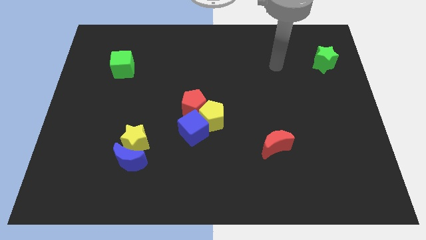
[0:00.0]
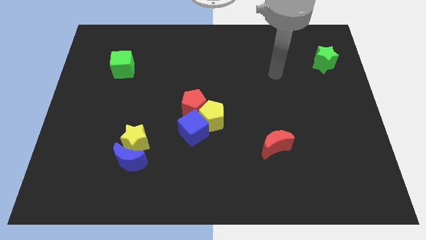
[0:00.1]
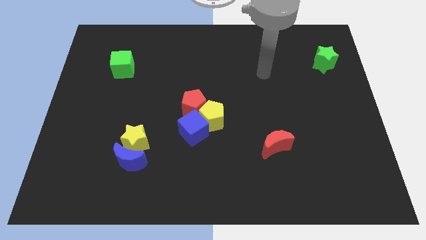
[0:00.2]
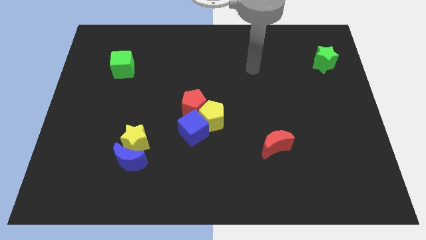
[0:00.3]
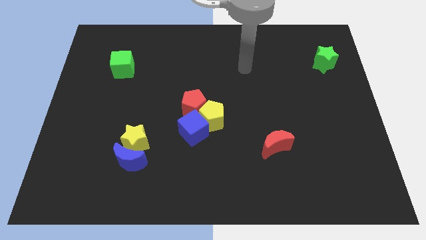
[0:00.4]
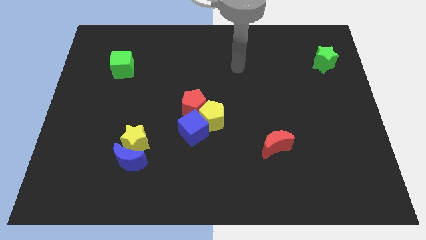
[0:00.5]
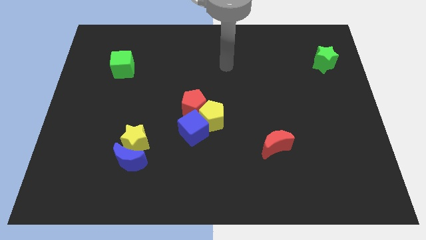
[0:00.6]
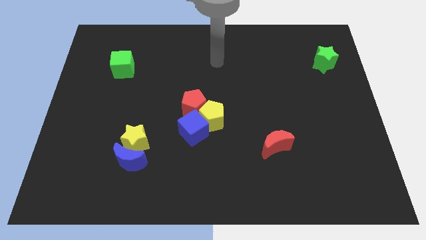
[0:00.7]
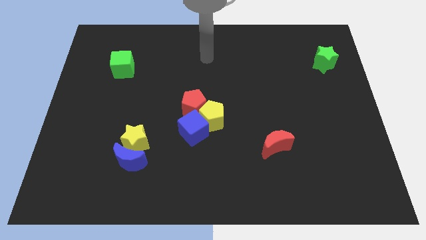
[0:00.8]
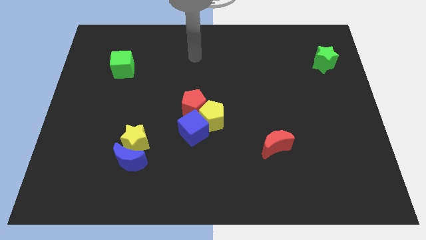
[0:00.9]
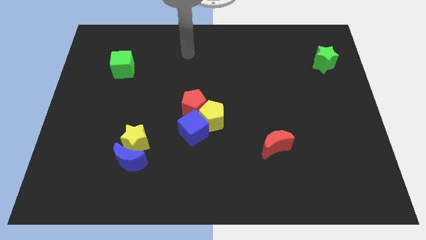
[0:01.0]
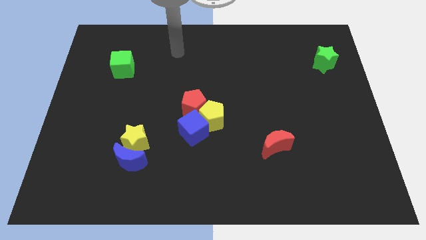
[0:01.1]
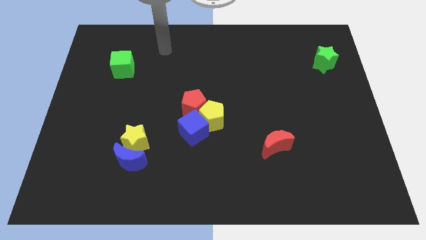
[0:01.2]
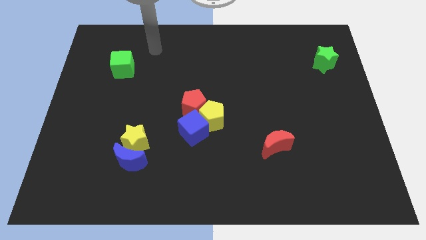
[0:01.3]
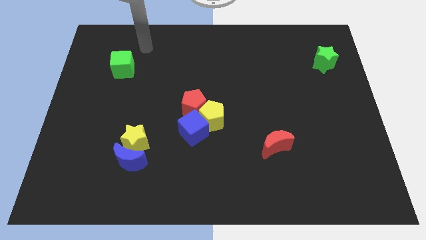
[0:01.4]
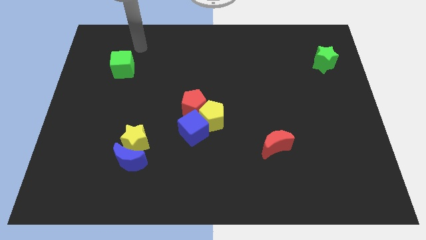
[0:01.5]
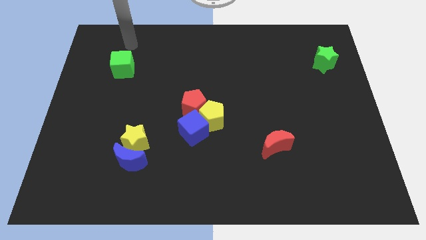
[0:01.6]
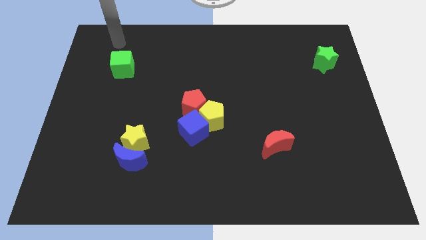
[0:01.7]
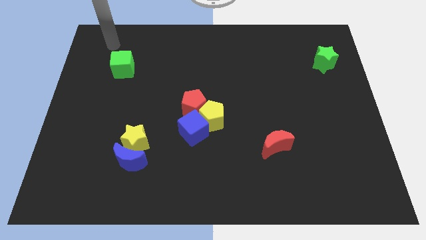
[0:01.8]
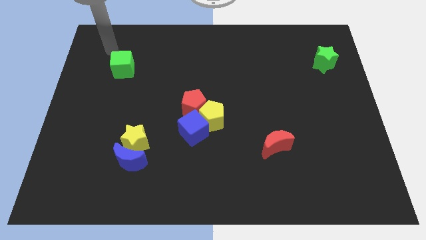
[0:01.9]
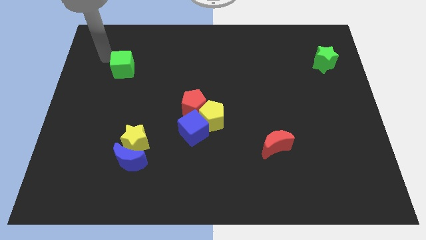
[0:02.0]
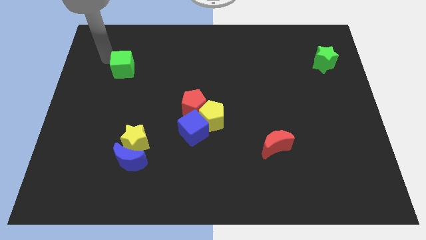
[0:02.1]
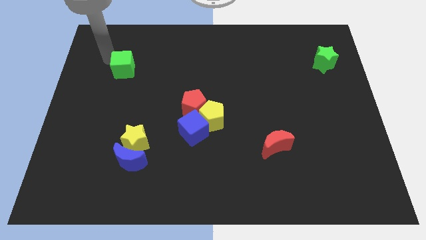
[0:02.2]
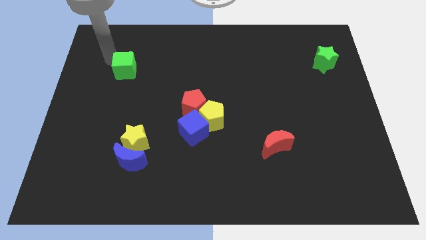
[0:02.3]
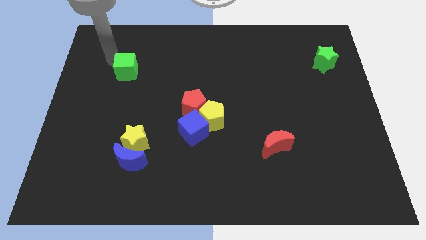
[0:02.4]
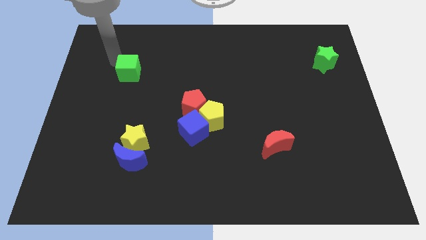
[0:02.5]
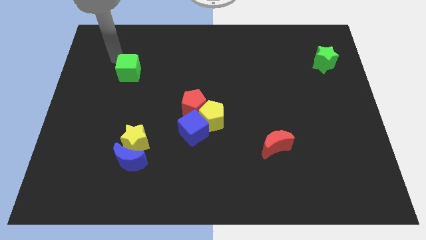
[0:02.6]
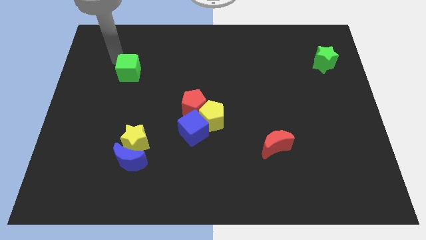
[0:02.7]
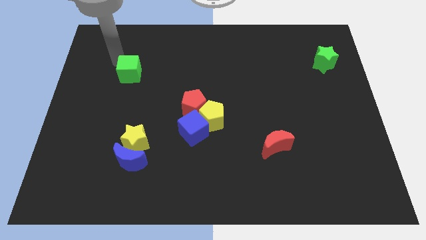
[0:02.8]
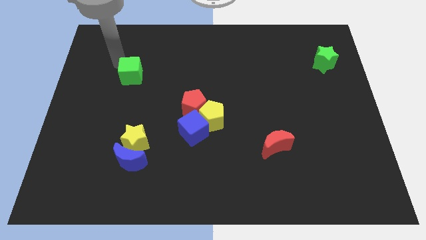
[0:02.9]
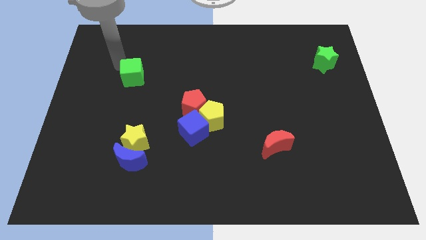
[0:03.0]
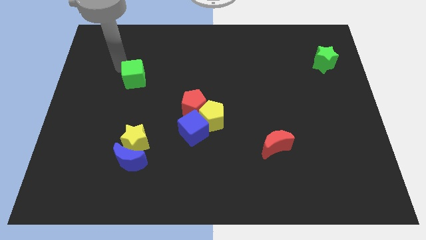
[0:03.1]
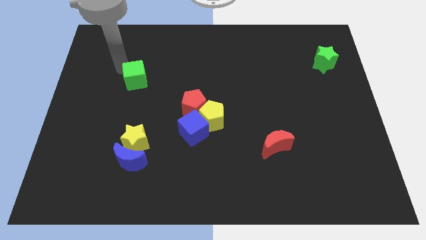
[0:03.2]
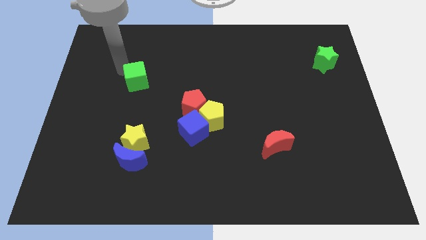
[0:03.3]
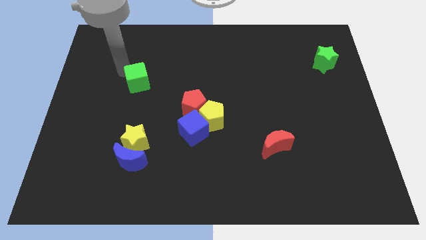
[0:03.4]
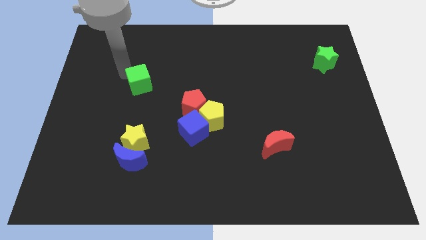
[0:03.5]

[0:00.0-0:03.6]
slightly push the green cube downwards and to the right

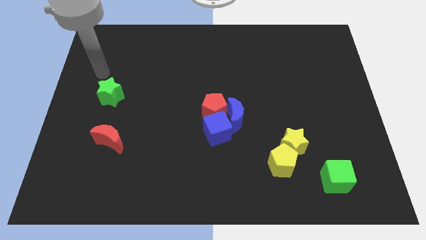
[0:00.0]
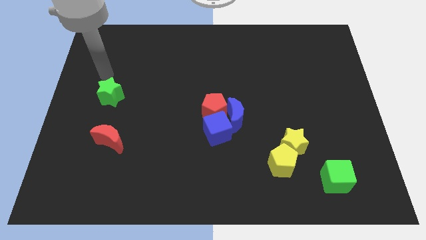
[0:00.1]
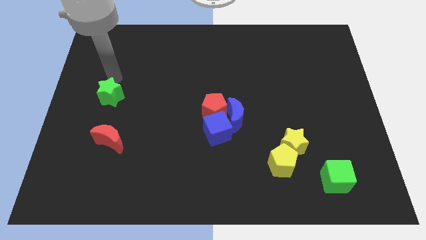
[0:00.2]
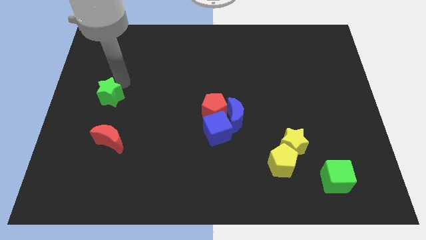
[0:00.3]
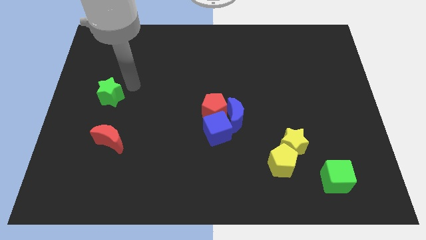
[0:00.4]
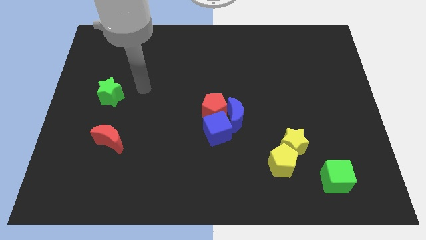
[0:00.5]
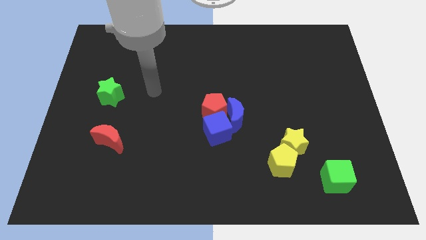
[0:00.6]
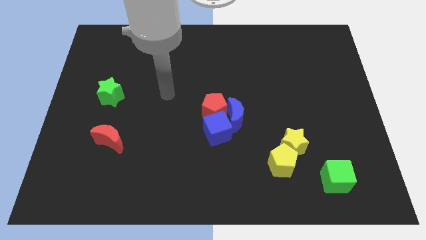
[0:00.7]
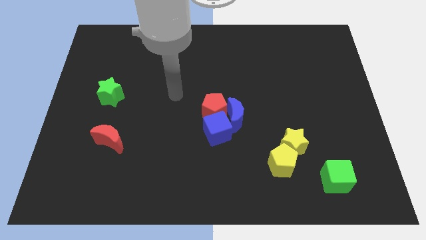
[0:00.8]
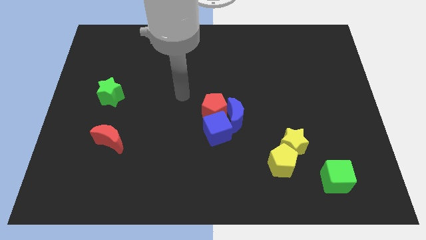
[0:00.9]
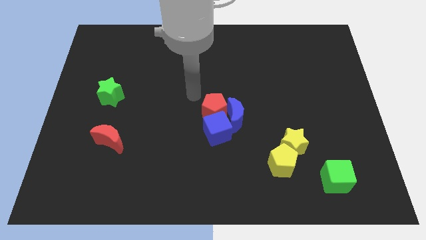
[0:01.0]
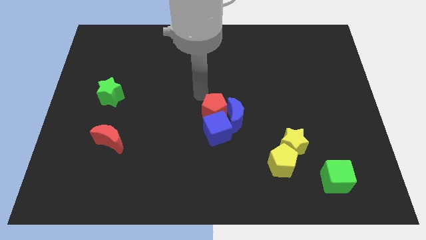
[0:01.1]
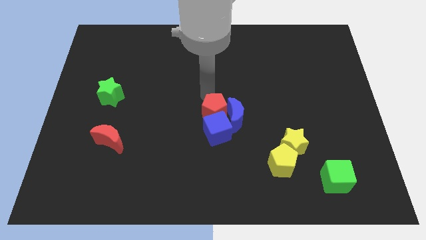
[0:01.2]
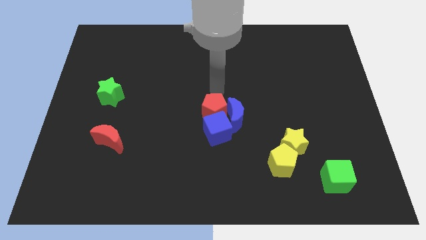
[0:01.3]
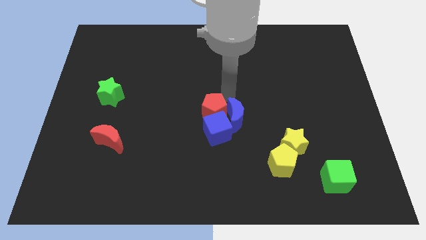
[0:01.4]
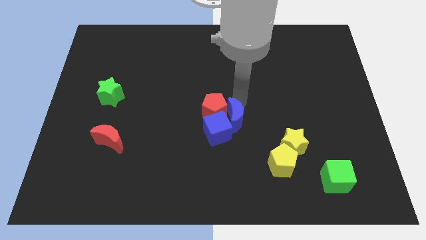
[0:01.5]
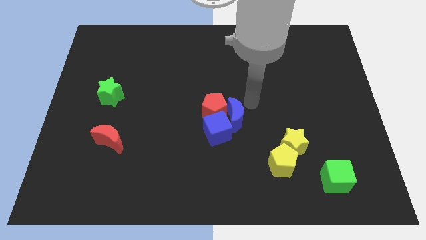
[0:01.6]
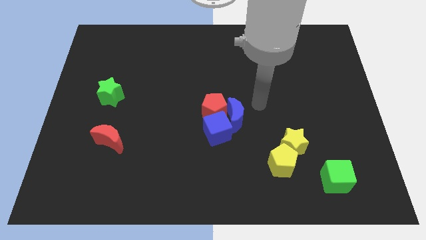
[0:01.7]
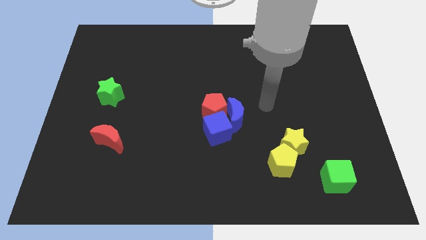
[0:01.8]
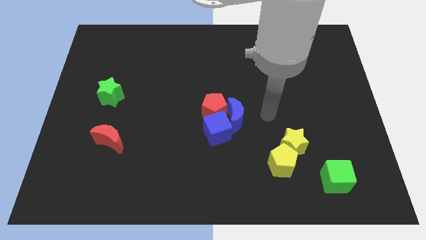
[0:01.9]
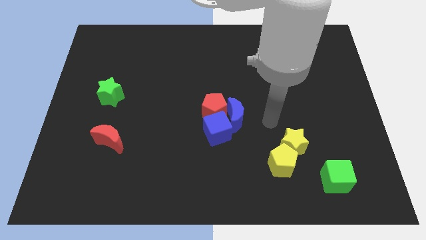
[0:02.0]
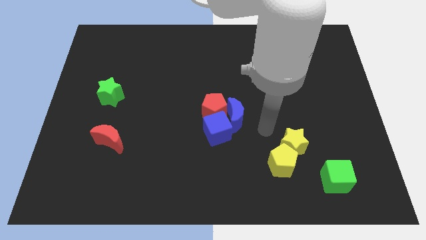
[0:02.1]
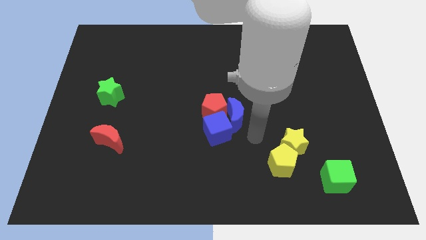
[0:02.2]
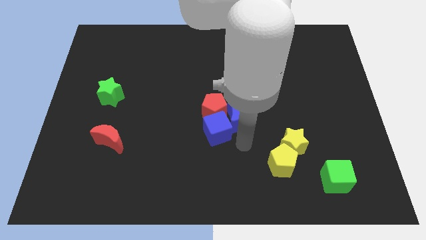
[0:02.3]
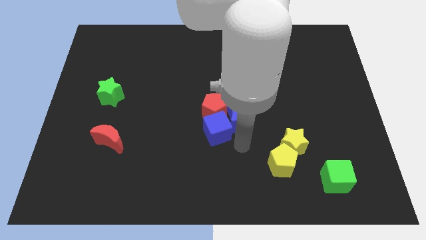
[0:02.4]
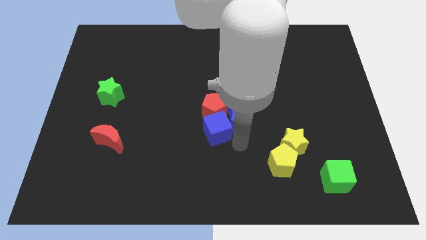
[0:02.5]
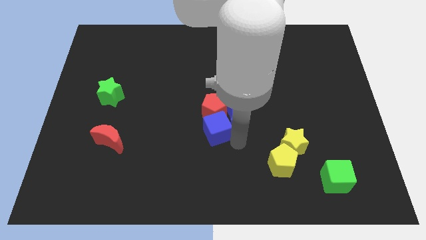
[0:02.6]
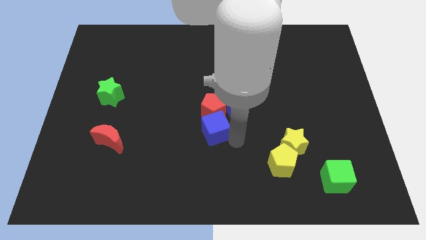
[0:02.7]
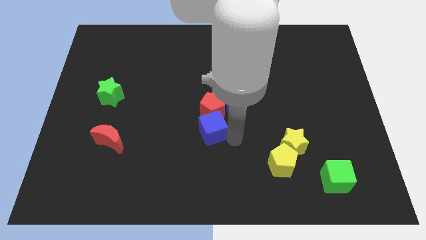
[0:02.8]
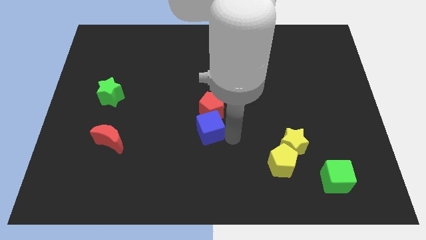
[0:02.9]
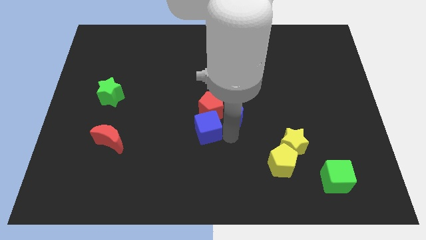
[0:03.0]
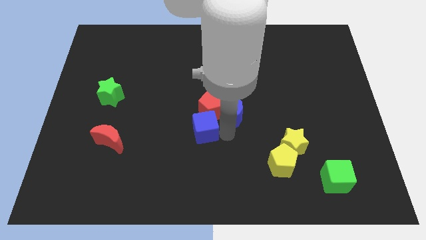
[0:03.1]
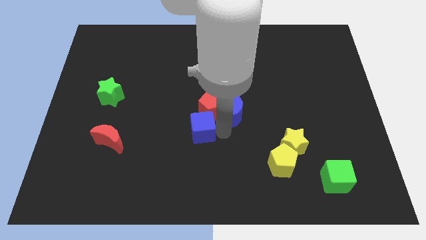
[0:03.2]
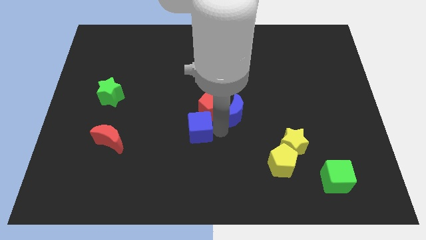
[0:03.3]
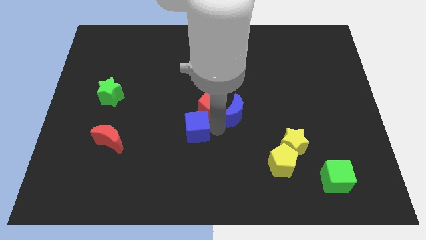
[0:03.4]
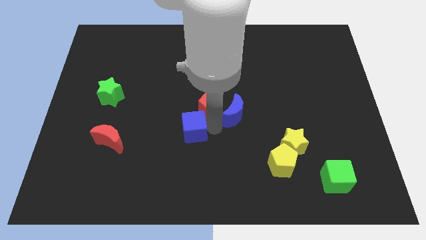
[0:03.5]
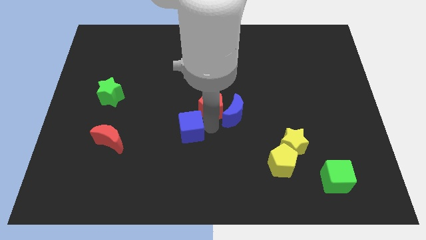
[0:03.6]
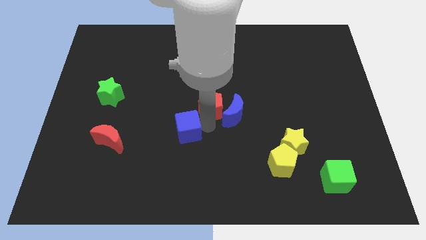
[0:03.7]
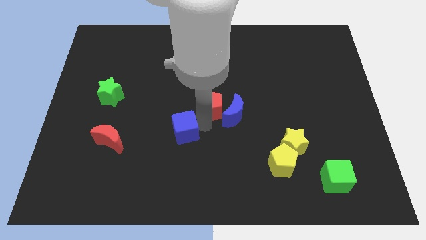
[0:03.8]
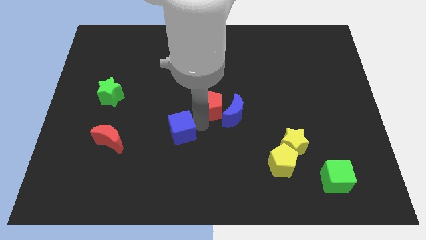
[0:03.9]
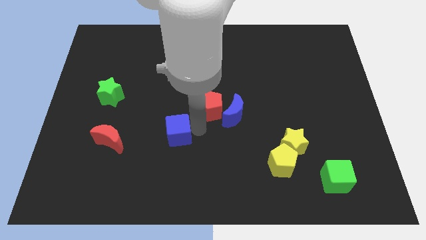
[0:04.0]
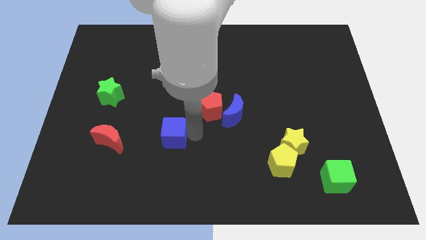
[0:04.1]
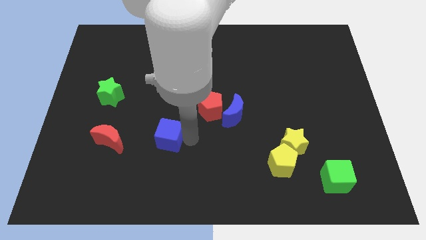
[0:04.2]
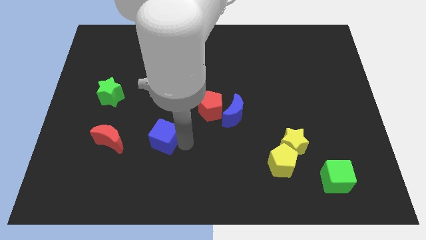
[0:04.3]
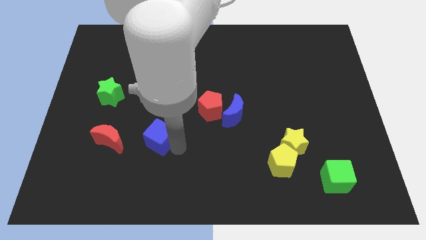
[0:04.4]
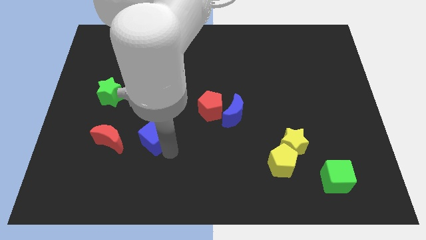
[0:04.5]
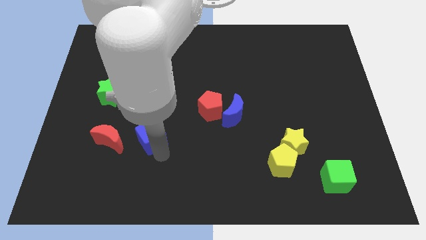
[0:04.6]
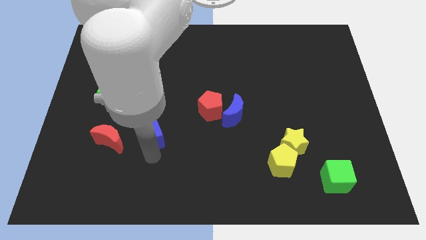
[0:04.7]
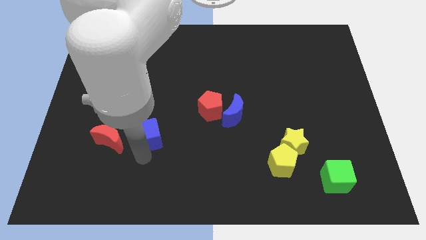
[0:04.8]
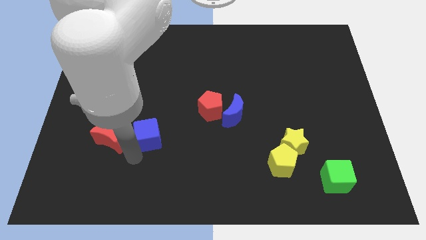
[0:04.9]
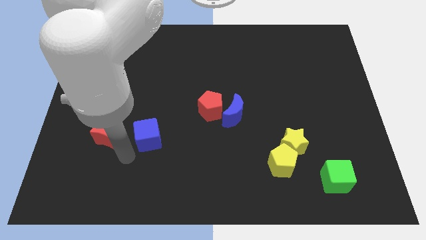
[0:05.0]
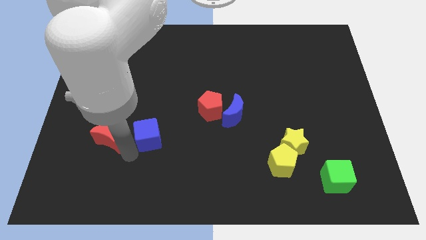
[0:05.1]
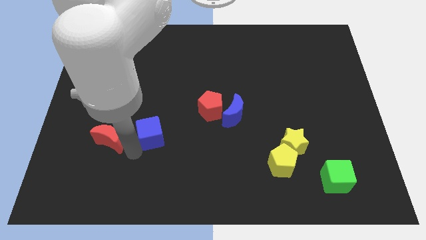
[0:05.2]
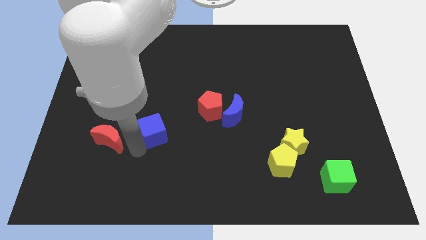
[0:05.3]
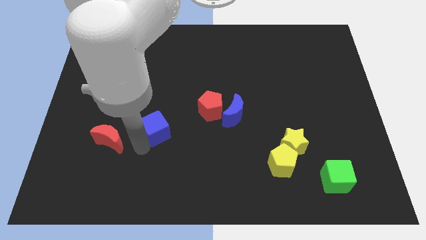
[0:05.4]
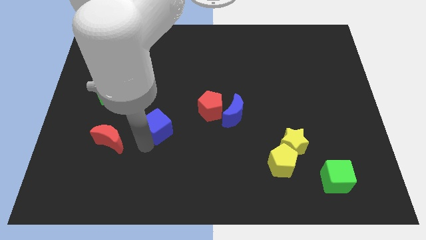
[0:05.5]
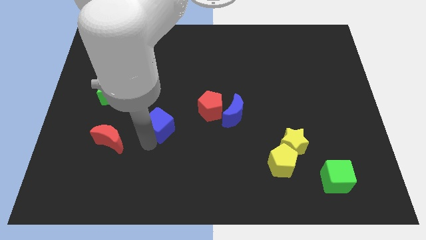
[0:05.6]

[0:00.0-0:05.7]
slide the blue cube a bit up and to the left
